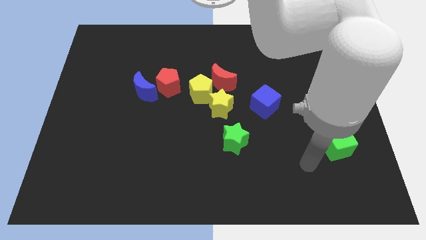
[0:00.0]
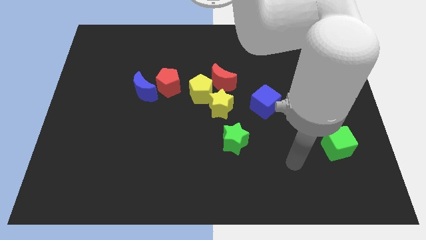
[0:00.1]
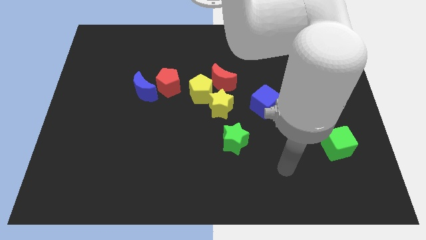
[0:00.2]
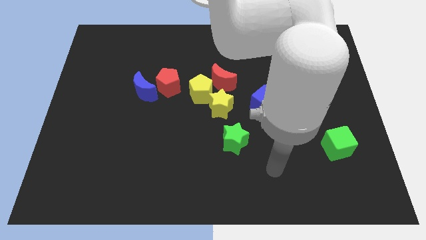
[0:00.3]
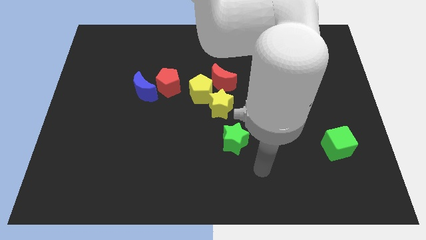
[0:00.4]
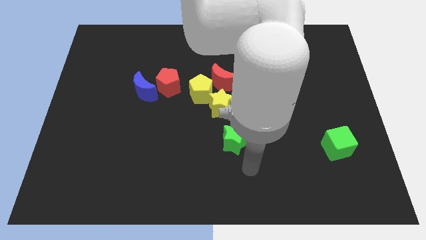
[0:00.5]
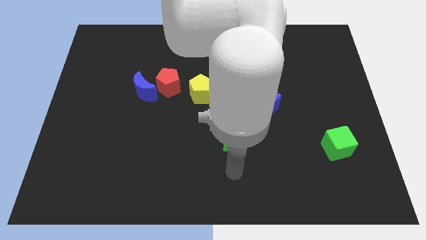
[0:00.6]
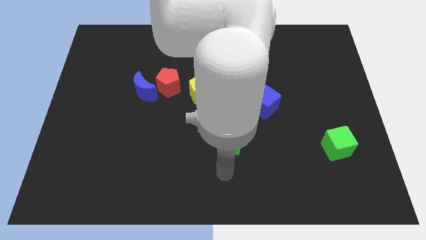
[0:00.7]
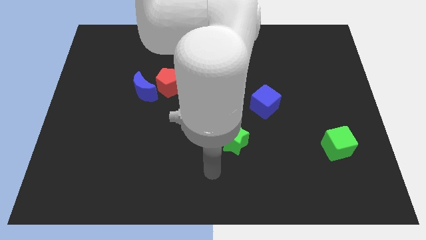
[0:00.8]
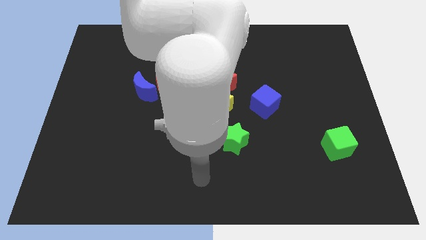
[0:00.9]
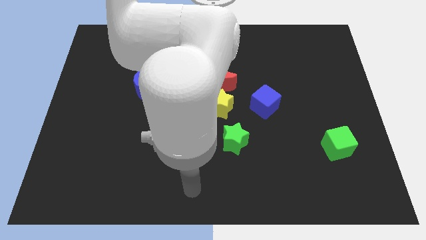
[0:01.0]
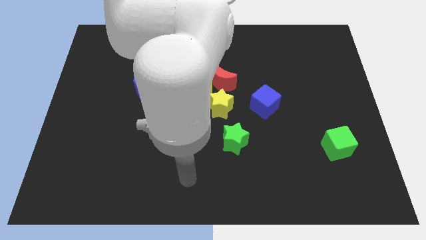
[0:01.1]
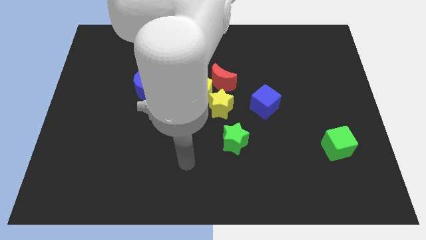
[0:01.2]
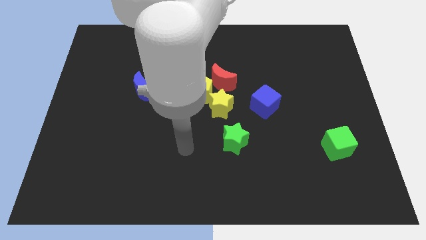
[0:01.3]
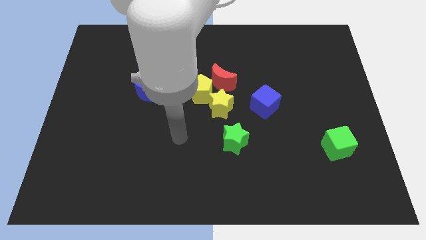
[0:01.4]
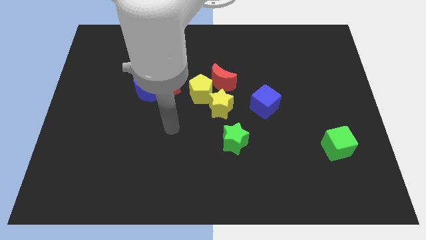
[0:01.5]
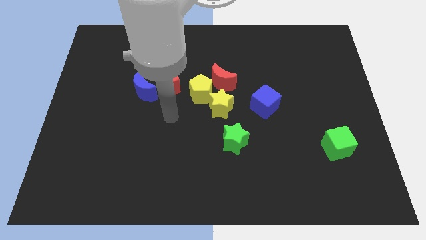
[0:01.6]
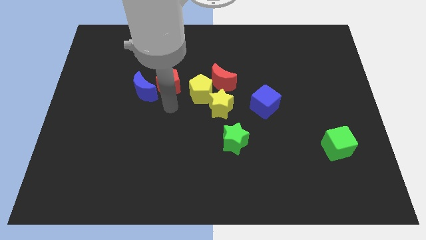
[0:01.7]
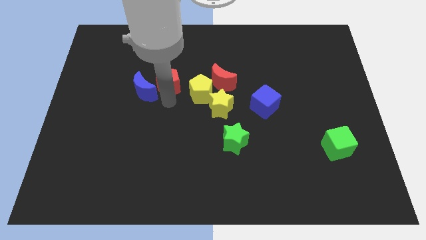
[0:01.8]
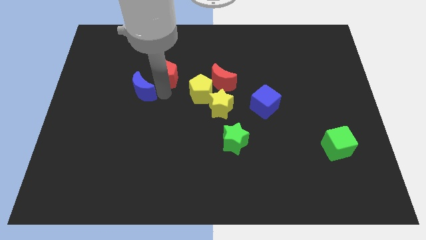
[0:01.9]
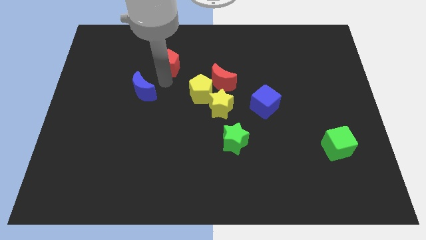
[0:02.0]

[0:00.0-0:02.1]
separate the blue moon from the red pentagon

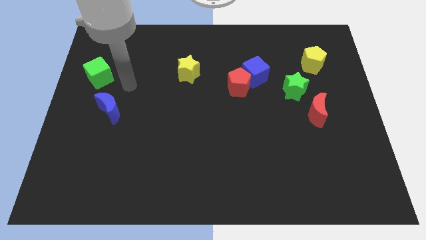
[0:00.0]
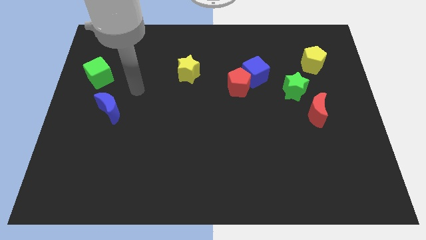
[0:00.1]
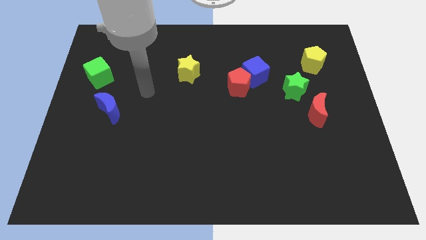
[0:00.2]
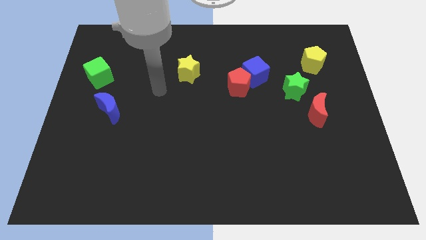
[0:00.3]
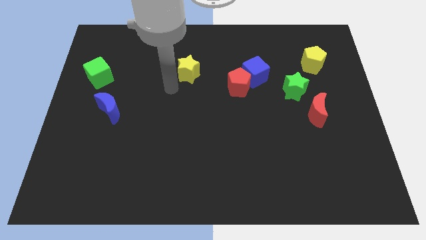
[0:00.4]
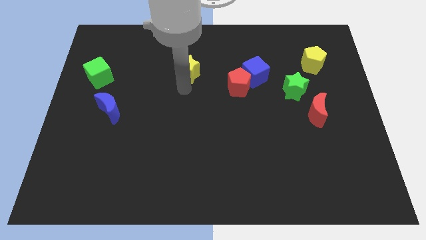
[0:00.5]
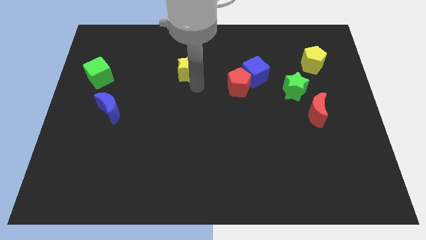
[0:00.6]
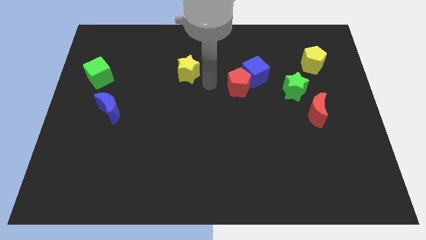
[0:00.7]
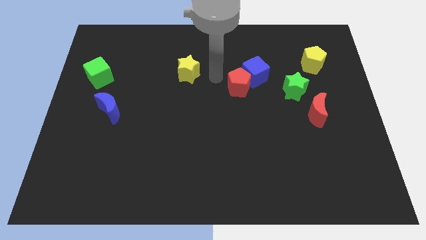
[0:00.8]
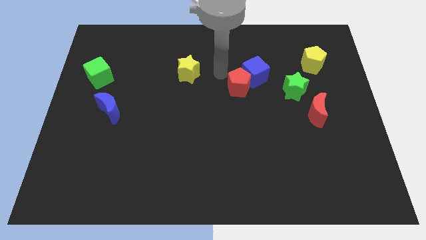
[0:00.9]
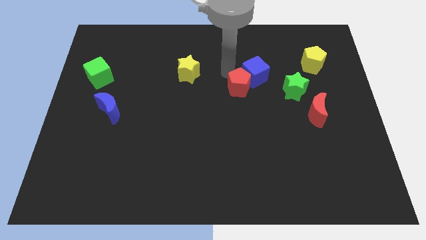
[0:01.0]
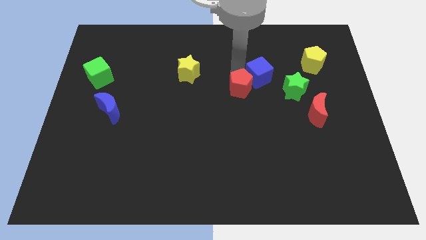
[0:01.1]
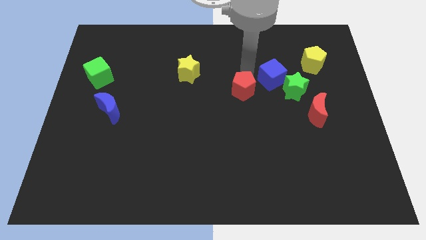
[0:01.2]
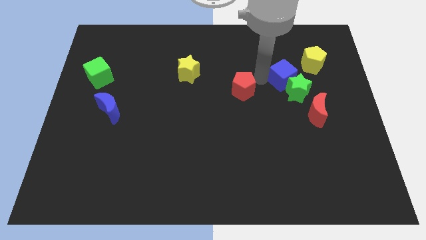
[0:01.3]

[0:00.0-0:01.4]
pull the red pentagon apart from the blue cube

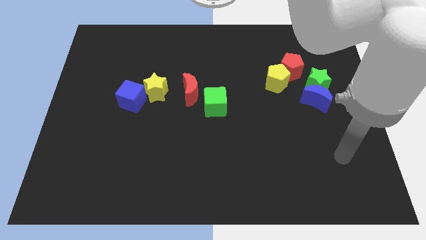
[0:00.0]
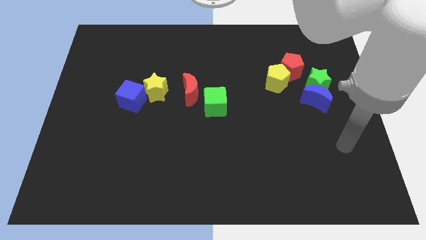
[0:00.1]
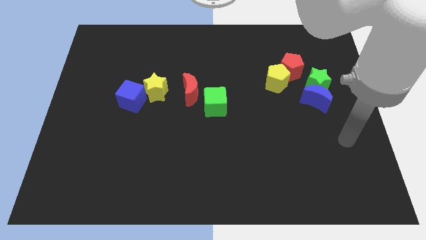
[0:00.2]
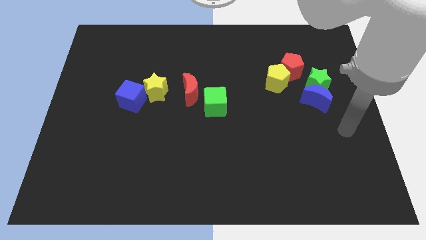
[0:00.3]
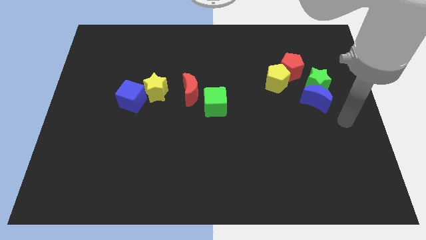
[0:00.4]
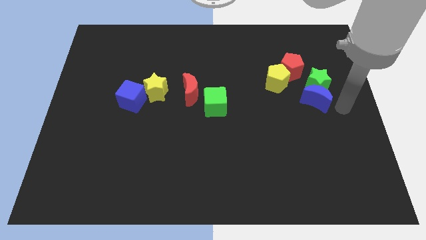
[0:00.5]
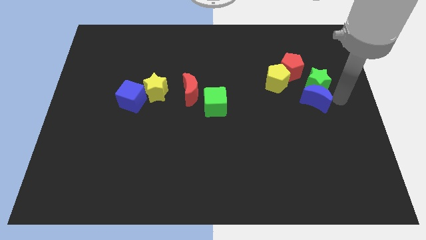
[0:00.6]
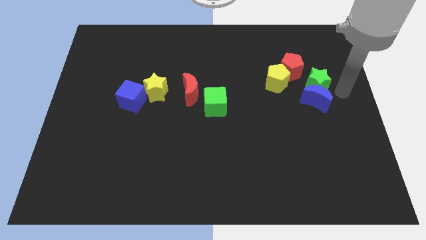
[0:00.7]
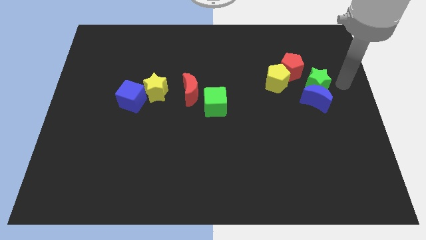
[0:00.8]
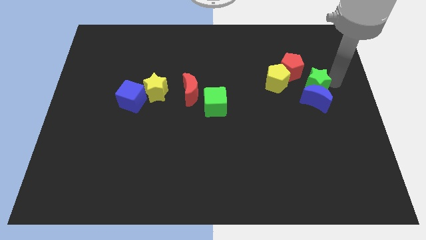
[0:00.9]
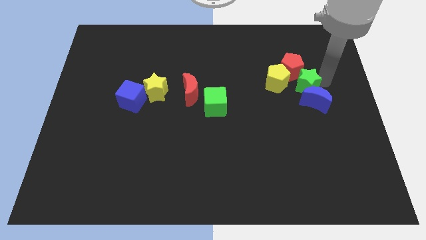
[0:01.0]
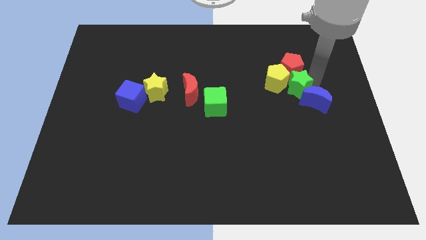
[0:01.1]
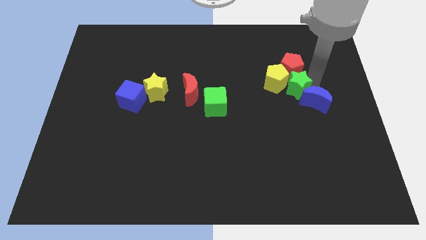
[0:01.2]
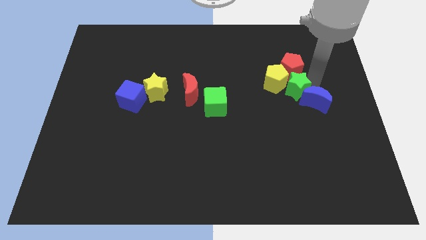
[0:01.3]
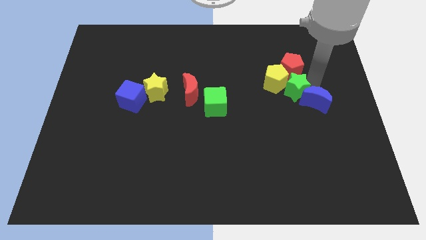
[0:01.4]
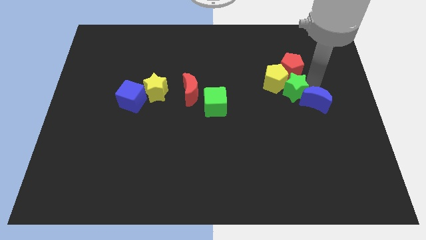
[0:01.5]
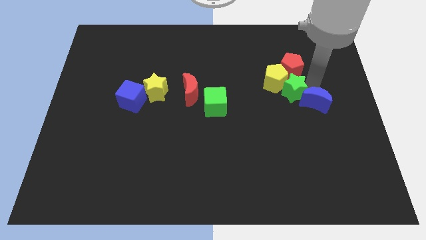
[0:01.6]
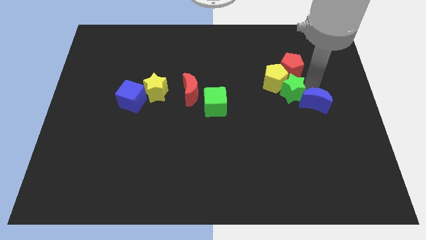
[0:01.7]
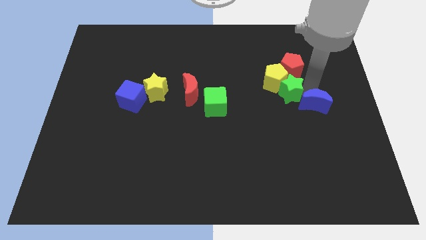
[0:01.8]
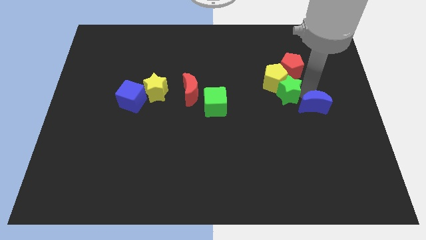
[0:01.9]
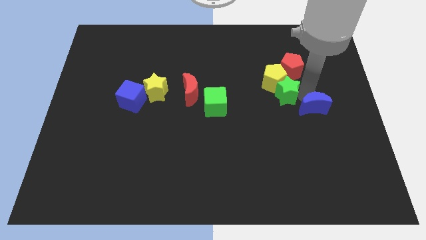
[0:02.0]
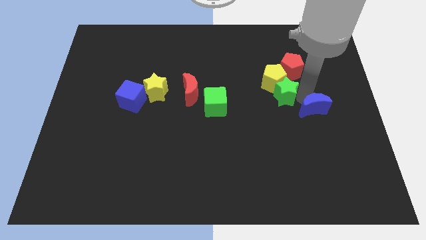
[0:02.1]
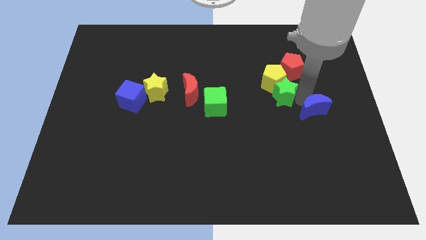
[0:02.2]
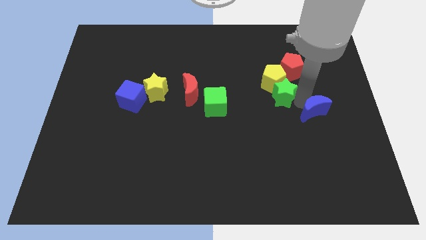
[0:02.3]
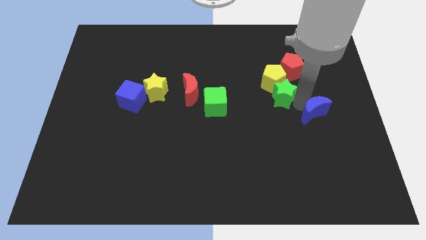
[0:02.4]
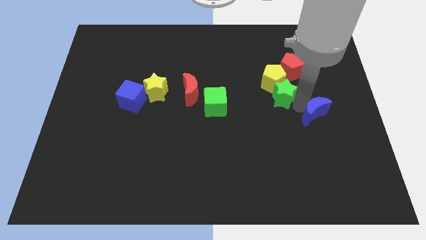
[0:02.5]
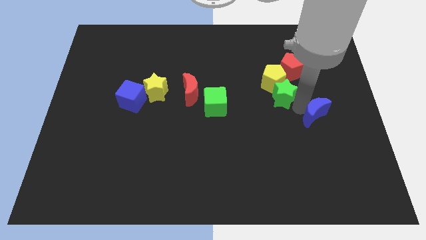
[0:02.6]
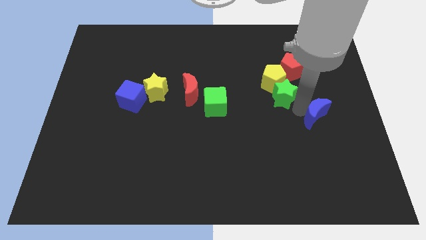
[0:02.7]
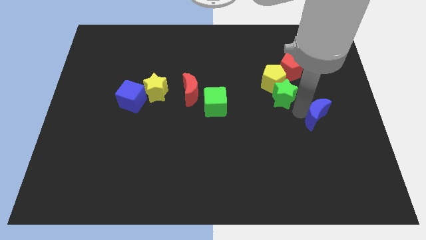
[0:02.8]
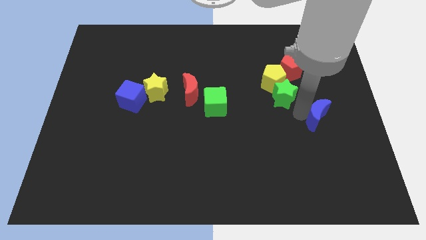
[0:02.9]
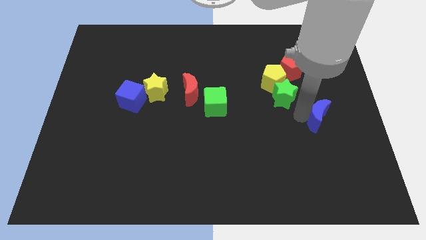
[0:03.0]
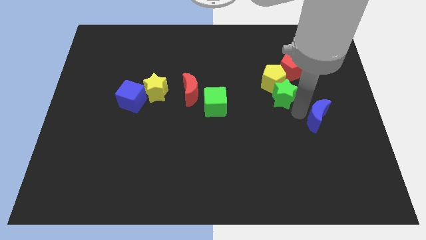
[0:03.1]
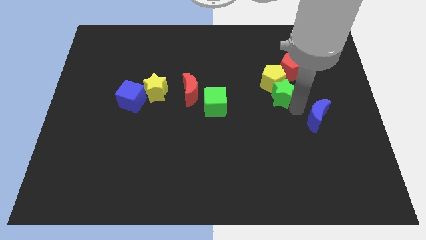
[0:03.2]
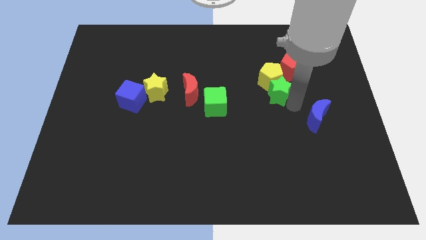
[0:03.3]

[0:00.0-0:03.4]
separate the blue moon from the green star

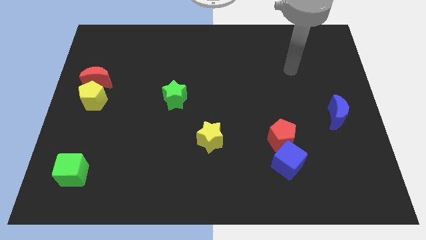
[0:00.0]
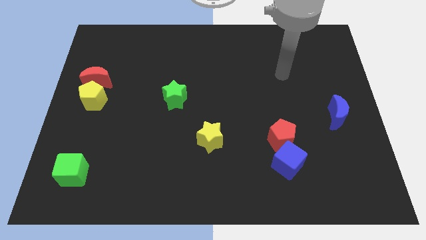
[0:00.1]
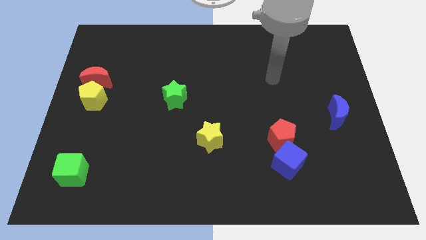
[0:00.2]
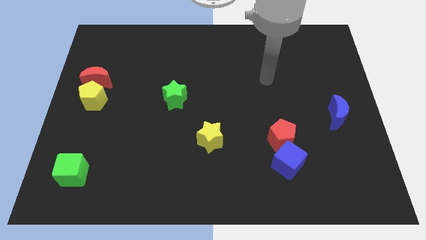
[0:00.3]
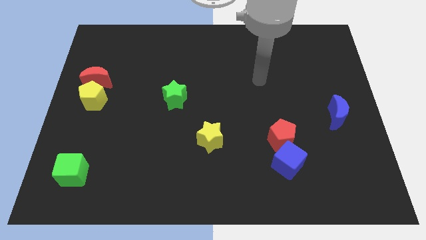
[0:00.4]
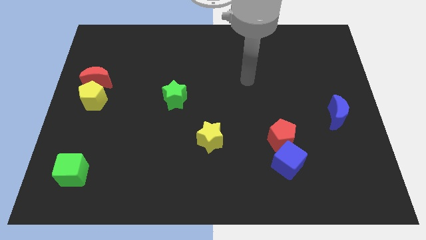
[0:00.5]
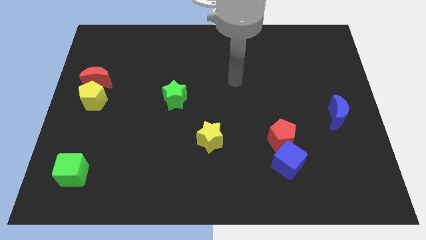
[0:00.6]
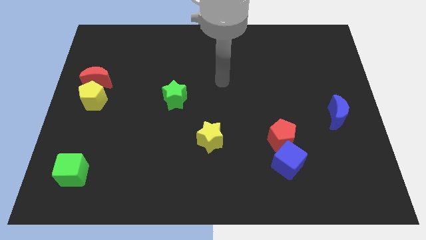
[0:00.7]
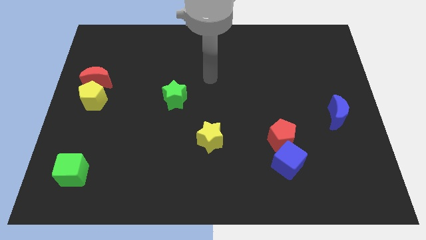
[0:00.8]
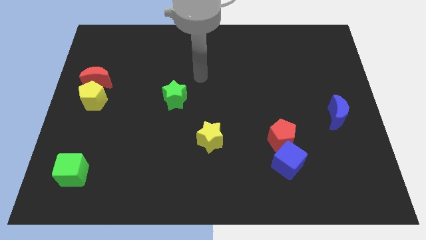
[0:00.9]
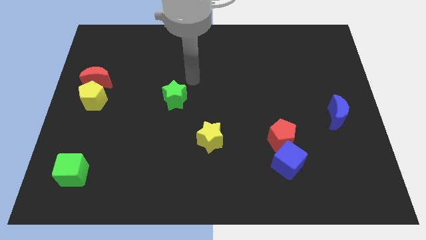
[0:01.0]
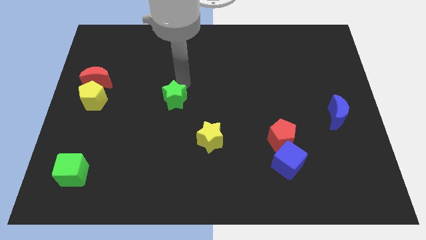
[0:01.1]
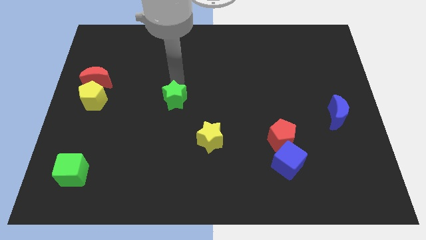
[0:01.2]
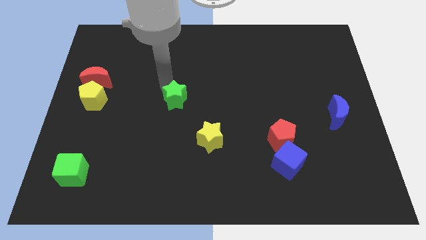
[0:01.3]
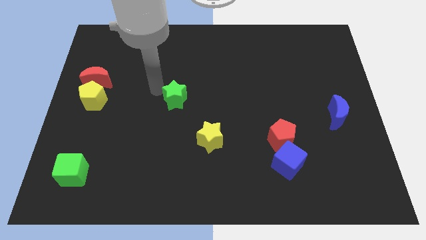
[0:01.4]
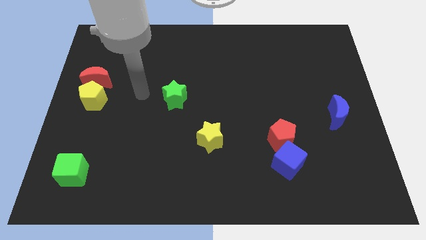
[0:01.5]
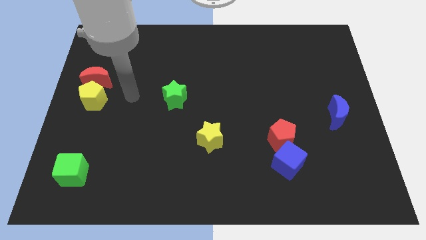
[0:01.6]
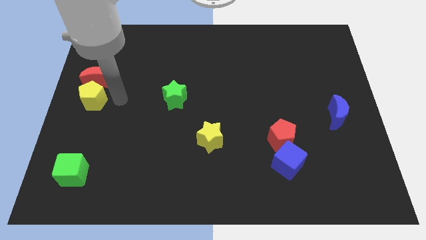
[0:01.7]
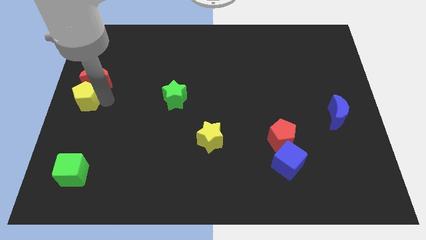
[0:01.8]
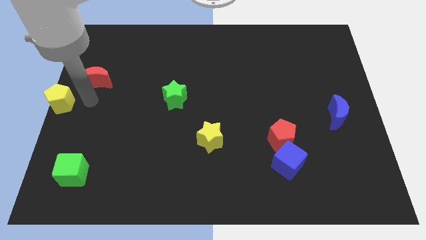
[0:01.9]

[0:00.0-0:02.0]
move the red moon away from the yellow pentagon

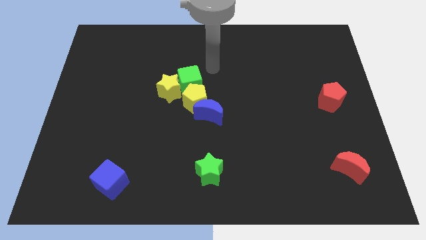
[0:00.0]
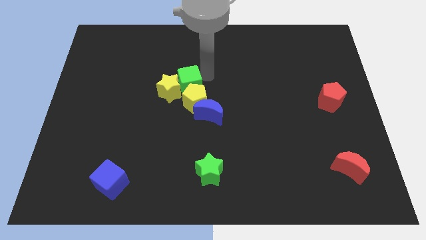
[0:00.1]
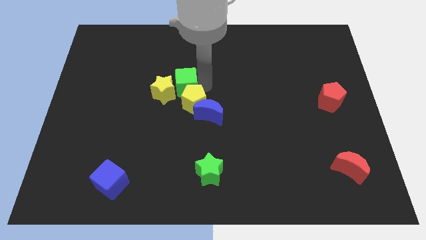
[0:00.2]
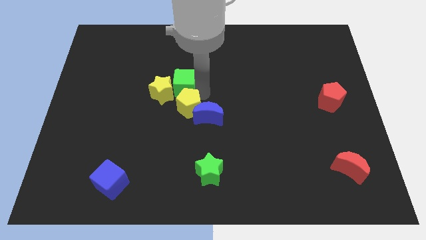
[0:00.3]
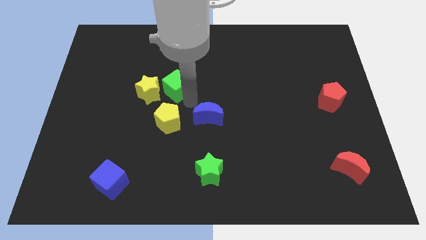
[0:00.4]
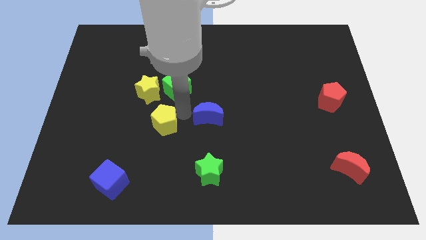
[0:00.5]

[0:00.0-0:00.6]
separate the blue moon from the yellow pentagon
